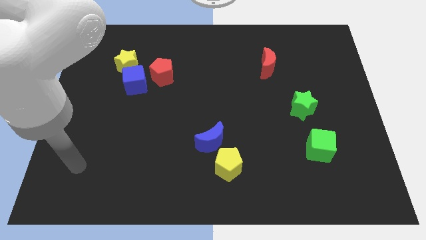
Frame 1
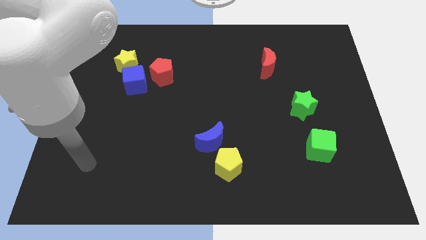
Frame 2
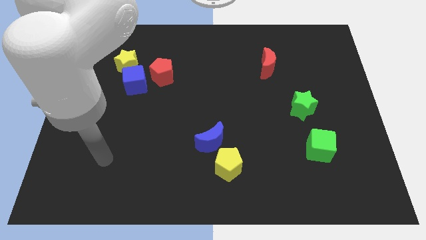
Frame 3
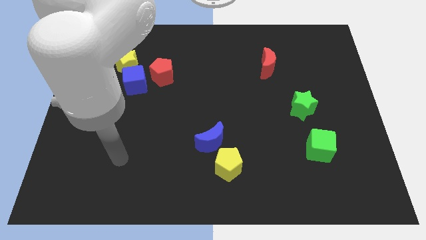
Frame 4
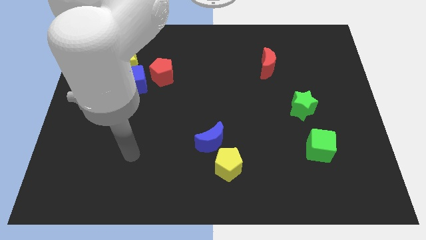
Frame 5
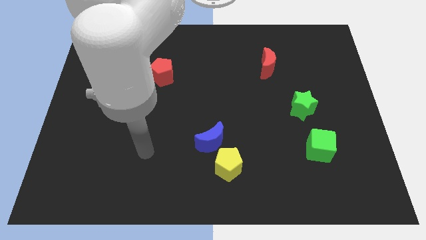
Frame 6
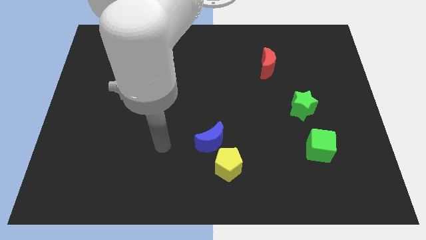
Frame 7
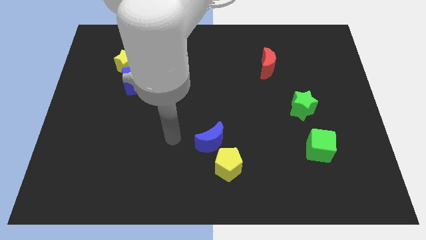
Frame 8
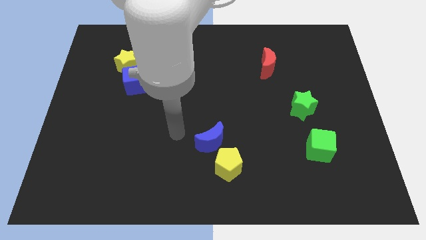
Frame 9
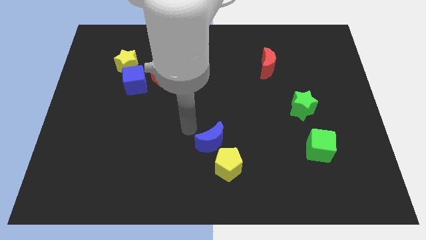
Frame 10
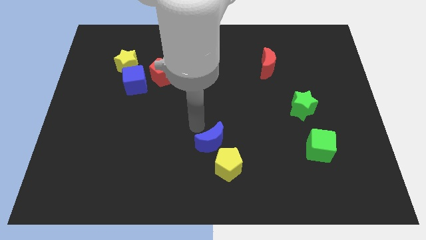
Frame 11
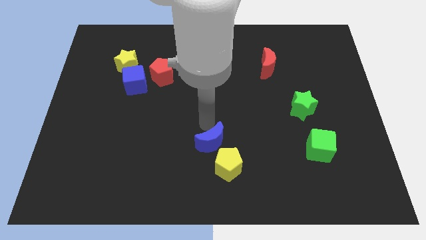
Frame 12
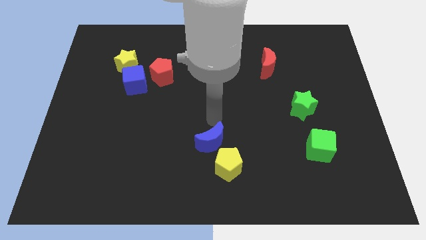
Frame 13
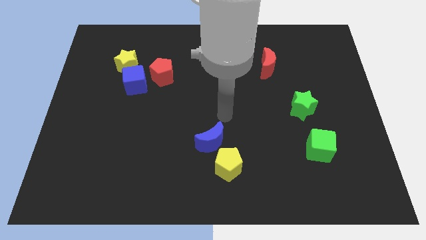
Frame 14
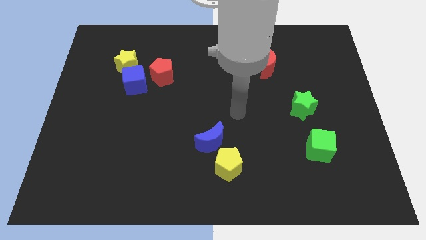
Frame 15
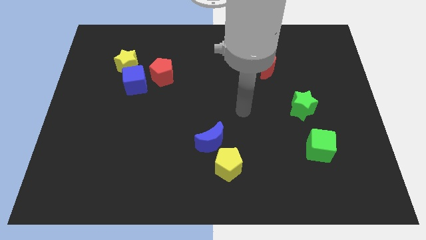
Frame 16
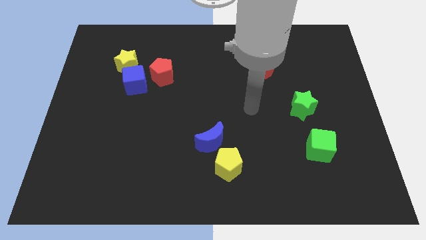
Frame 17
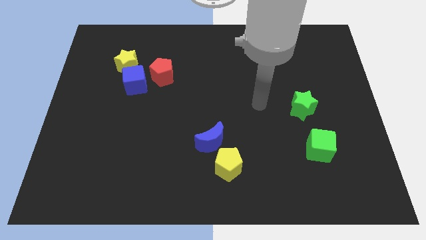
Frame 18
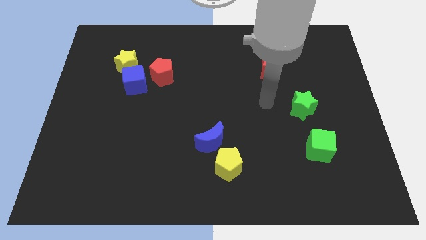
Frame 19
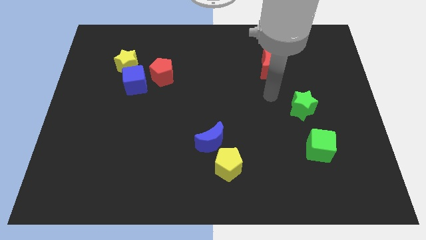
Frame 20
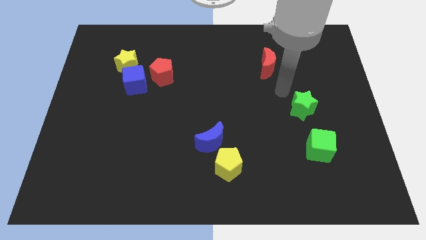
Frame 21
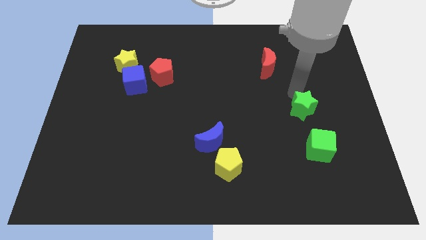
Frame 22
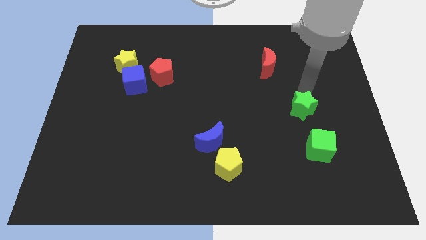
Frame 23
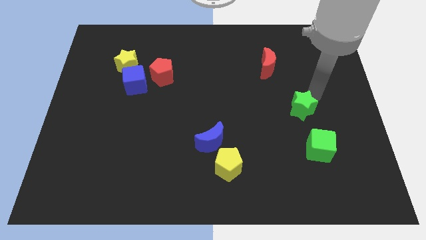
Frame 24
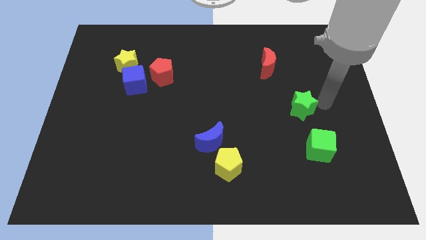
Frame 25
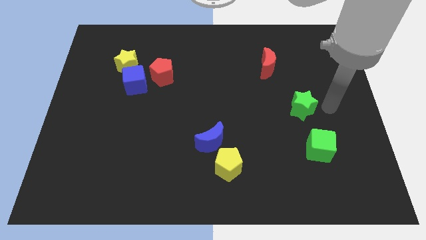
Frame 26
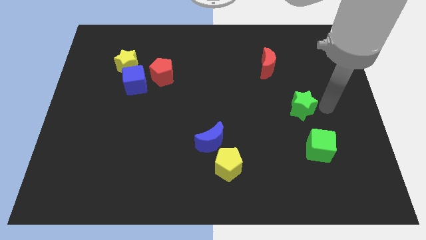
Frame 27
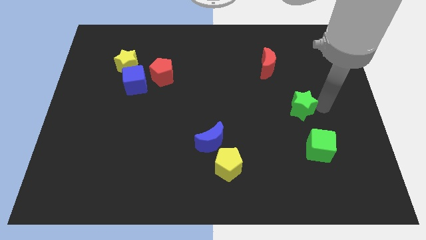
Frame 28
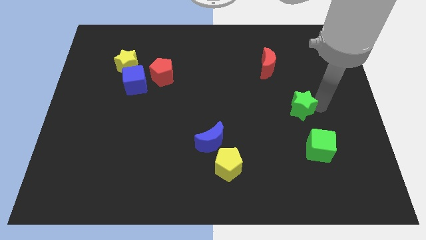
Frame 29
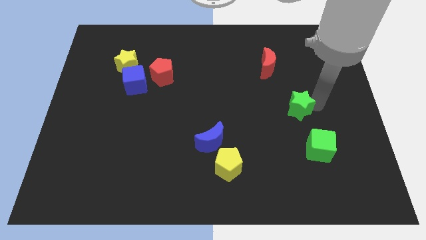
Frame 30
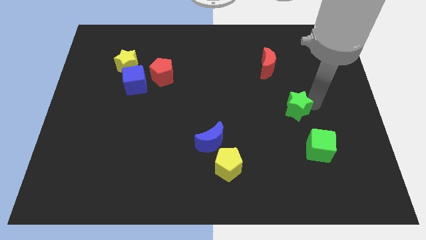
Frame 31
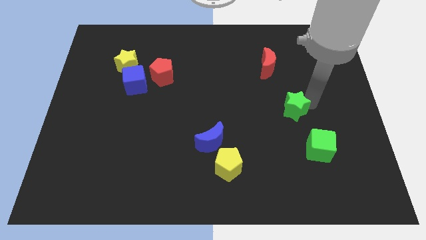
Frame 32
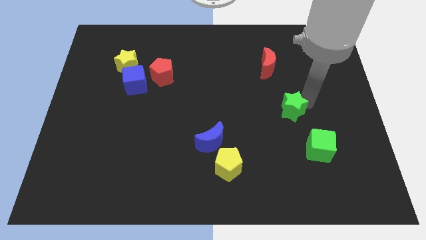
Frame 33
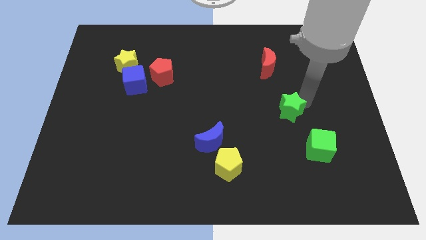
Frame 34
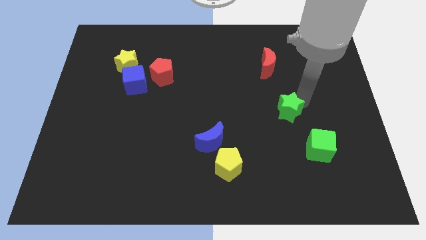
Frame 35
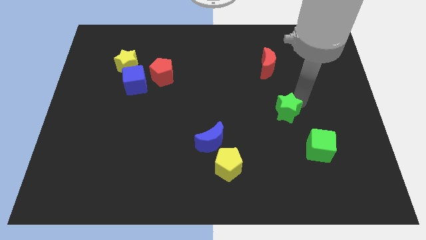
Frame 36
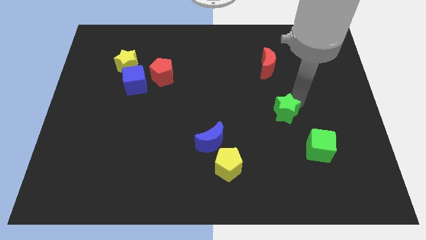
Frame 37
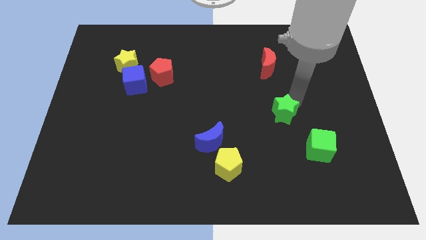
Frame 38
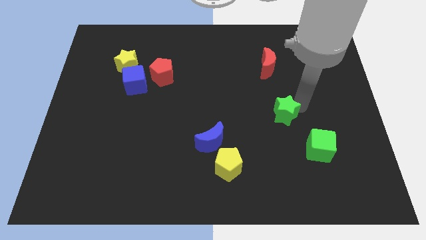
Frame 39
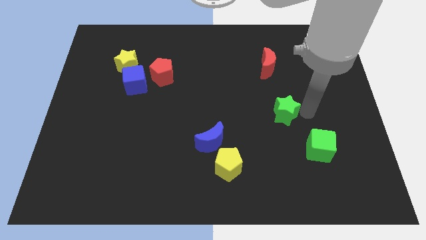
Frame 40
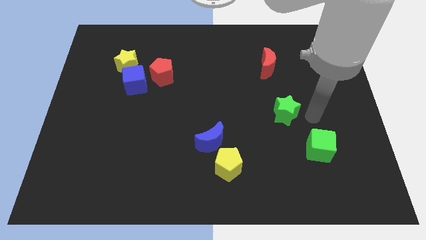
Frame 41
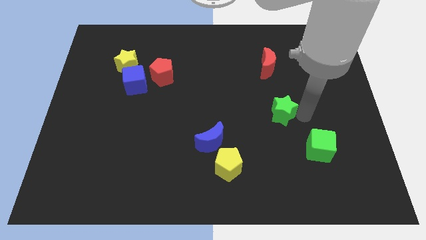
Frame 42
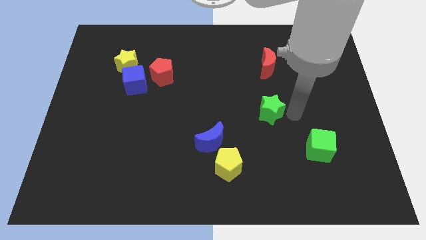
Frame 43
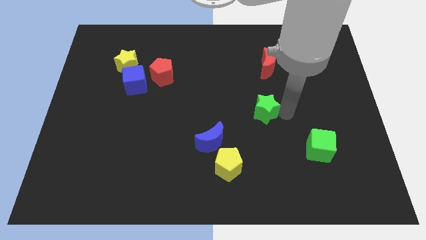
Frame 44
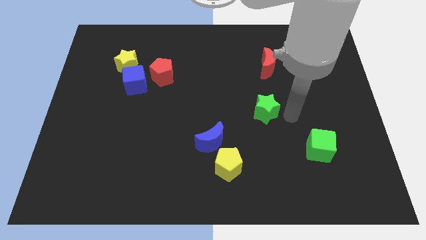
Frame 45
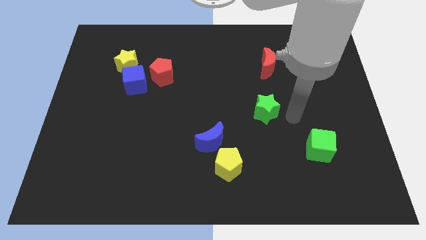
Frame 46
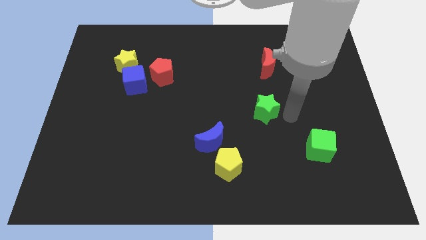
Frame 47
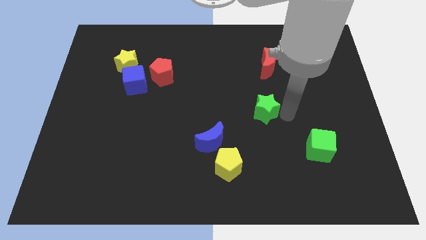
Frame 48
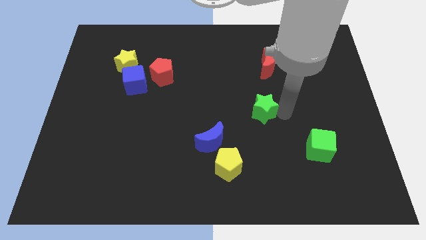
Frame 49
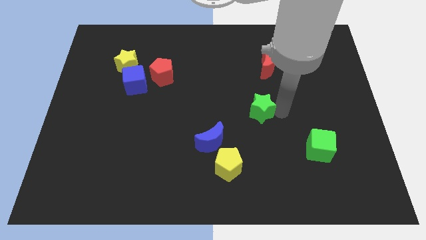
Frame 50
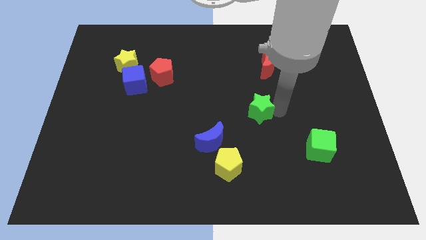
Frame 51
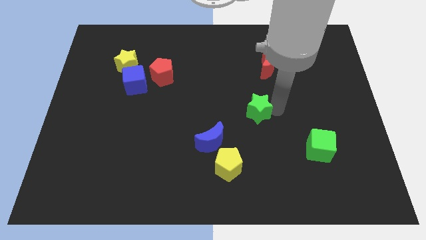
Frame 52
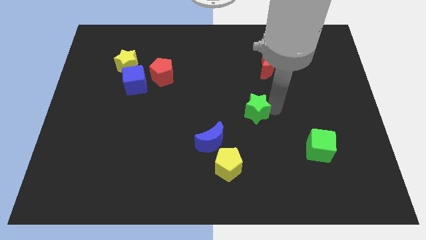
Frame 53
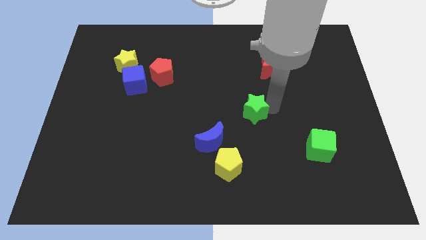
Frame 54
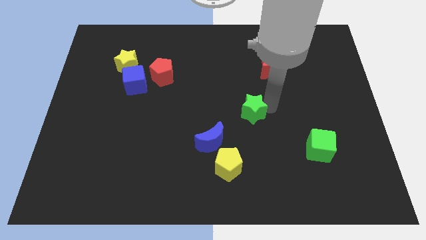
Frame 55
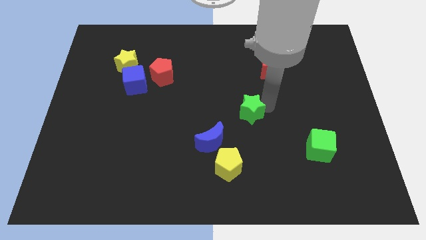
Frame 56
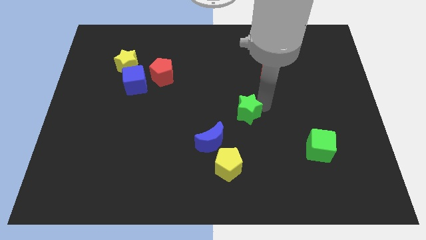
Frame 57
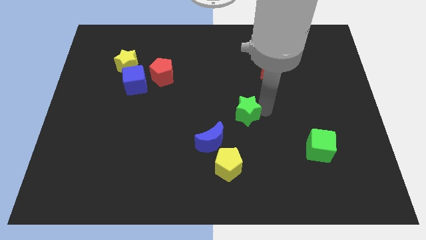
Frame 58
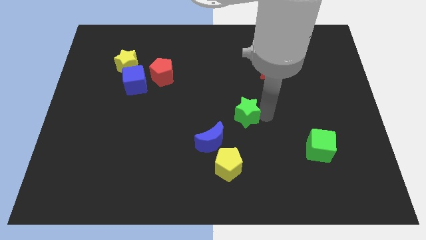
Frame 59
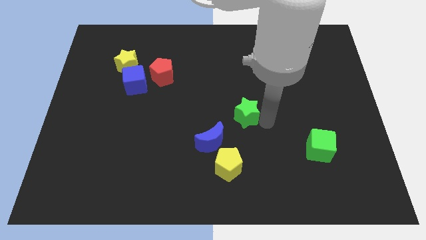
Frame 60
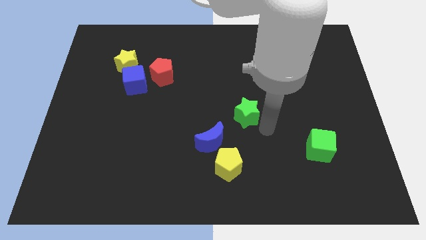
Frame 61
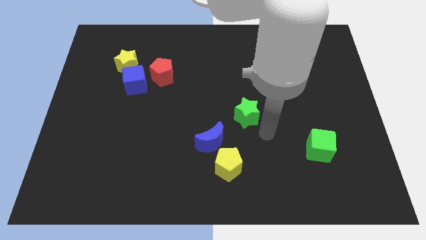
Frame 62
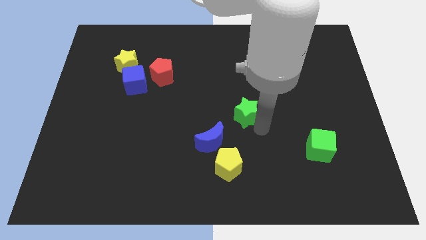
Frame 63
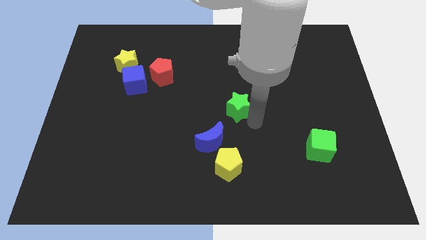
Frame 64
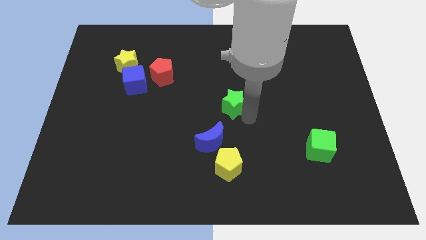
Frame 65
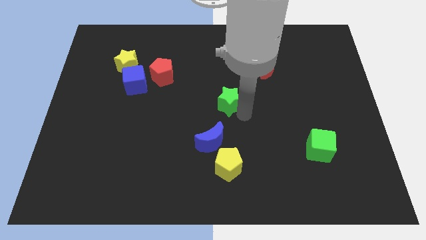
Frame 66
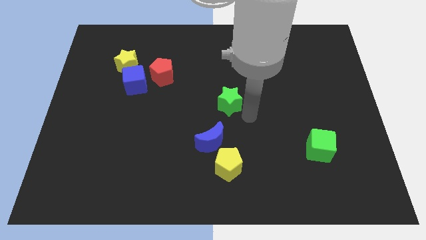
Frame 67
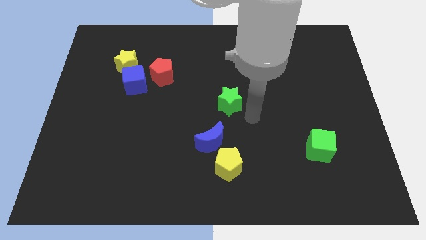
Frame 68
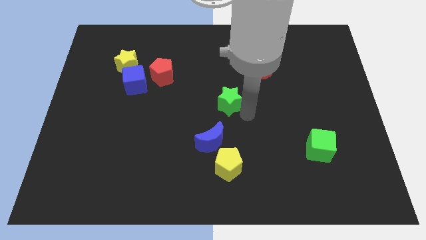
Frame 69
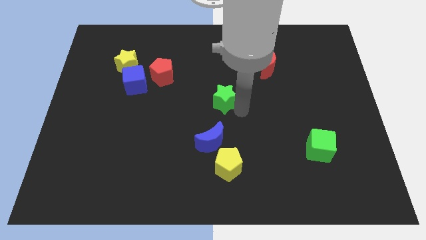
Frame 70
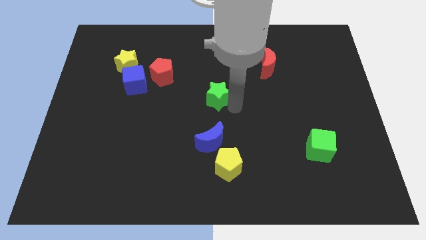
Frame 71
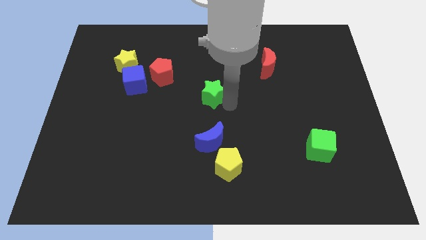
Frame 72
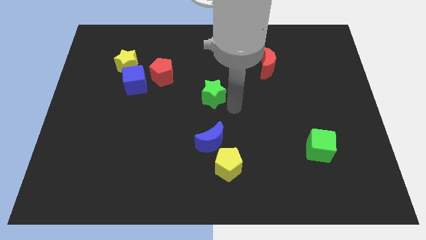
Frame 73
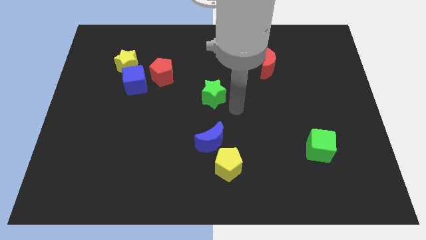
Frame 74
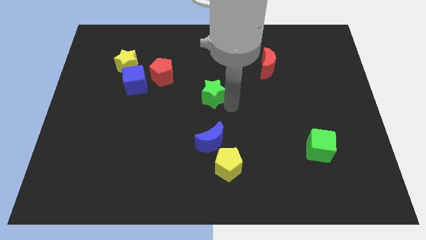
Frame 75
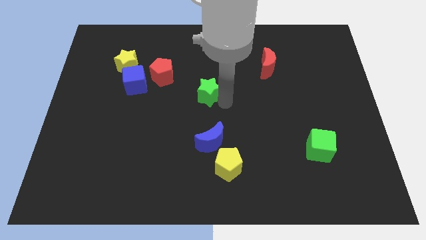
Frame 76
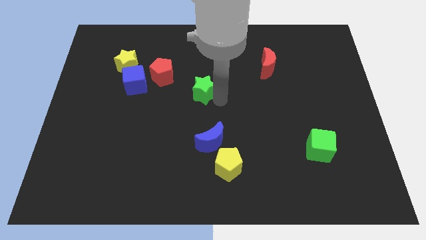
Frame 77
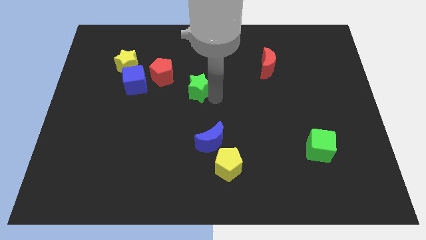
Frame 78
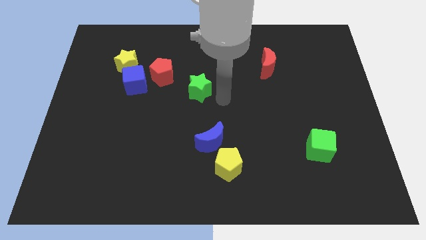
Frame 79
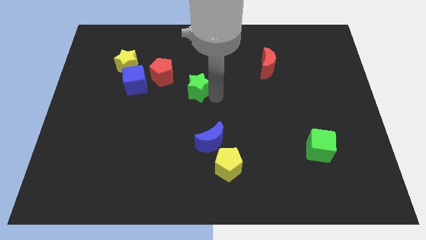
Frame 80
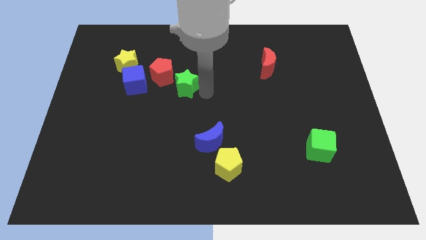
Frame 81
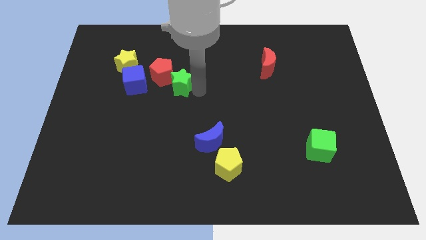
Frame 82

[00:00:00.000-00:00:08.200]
slide the green star close to the red pentagon
